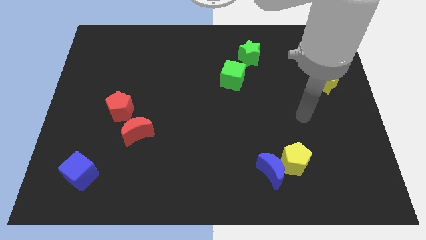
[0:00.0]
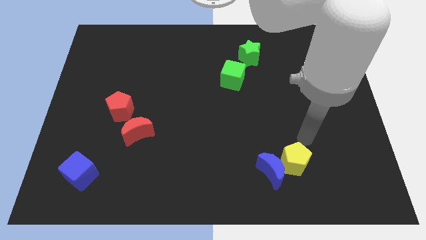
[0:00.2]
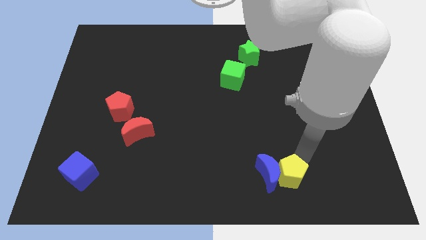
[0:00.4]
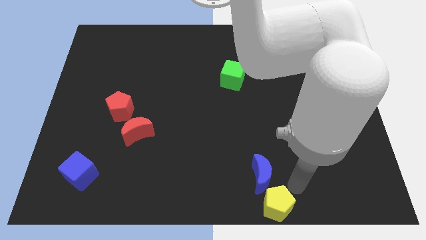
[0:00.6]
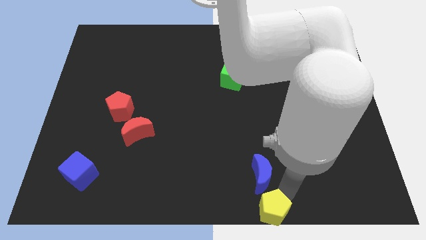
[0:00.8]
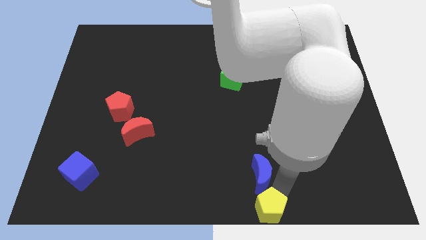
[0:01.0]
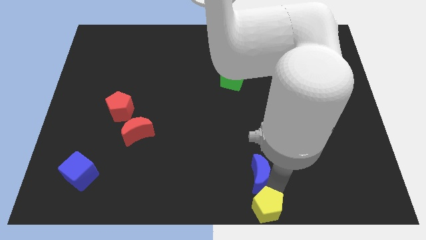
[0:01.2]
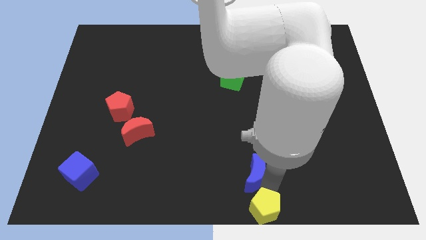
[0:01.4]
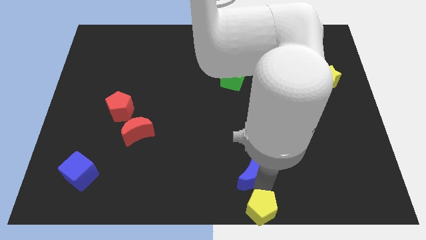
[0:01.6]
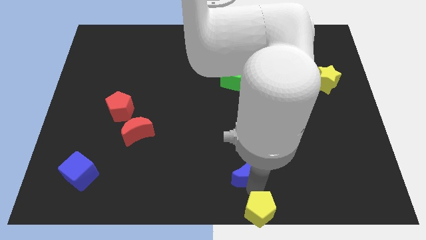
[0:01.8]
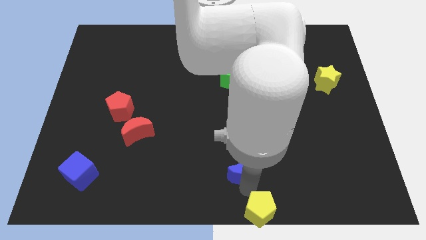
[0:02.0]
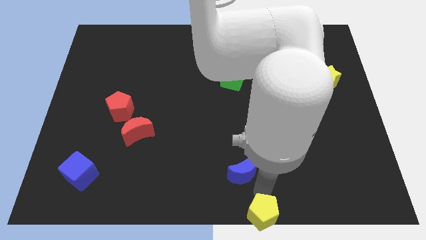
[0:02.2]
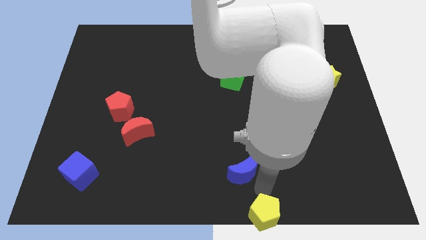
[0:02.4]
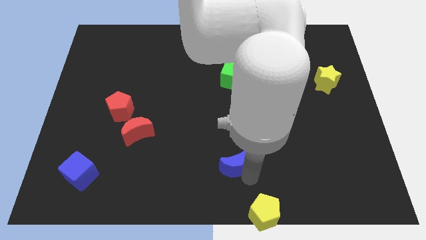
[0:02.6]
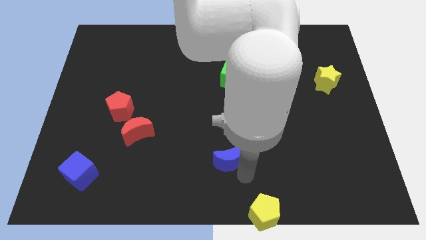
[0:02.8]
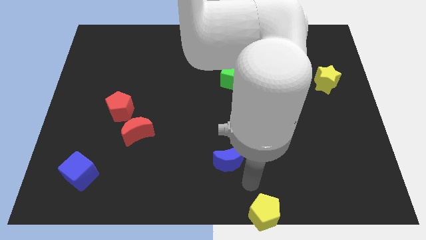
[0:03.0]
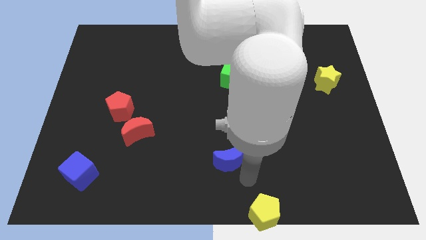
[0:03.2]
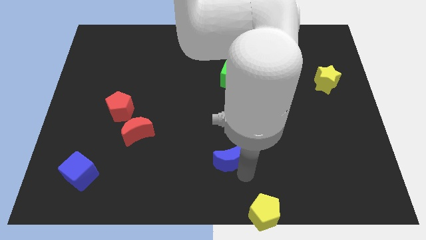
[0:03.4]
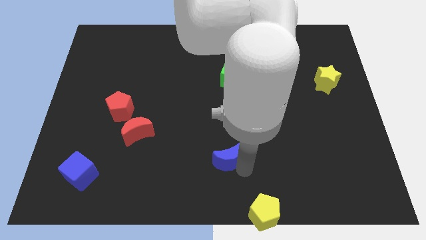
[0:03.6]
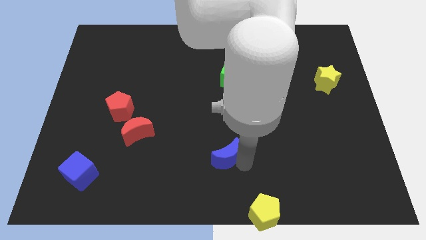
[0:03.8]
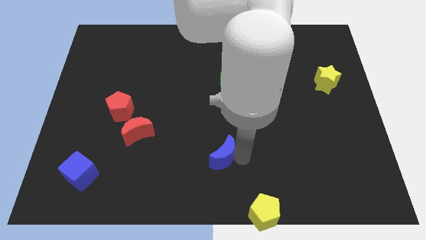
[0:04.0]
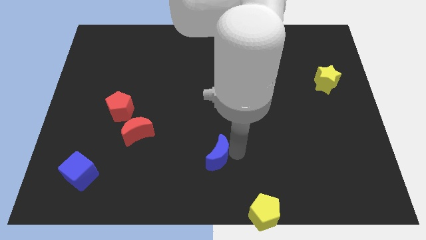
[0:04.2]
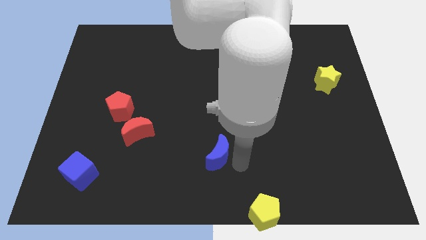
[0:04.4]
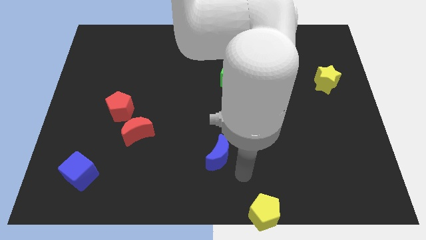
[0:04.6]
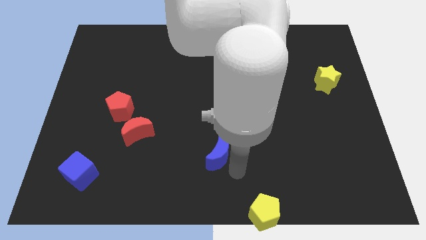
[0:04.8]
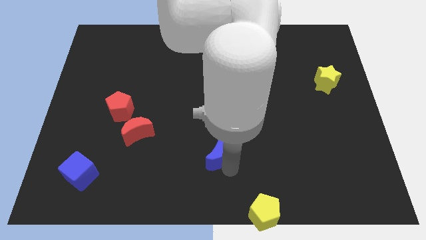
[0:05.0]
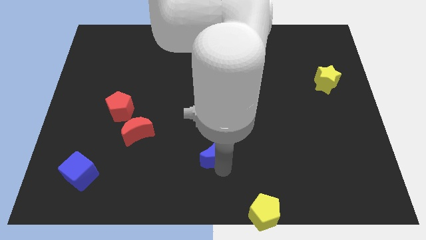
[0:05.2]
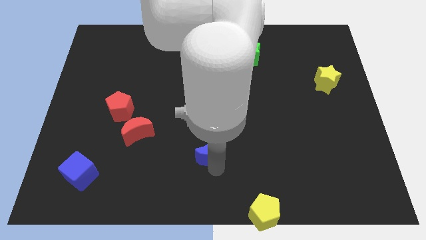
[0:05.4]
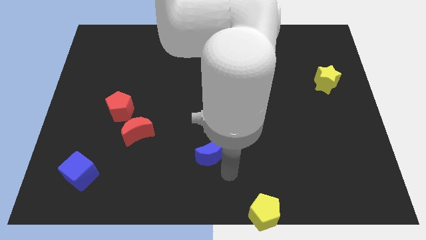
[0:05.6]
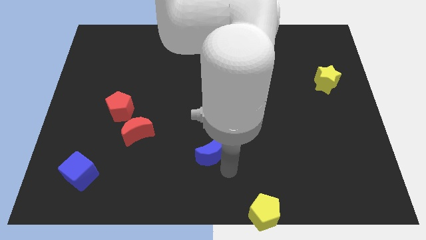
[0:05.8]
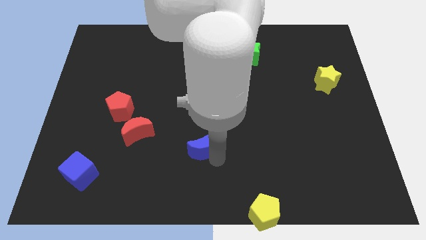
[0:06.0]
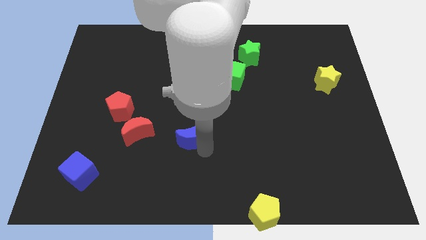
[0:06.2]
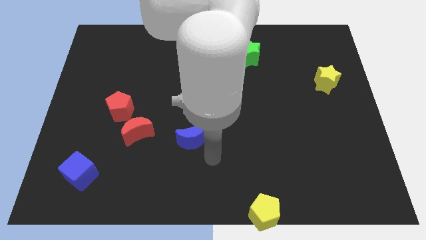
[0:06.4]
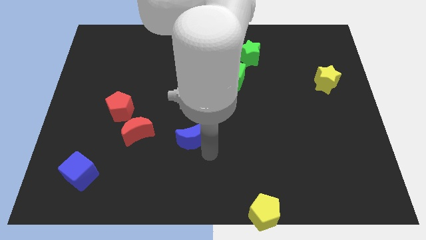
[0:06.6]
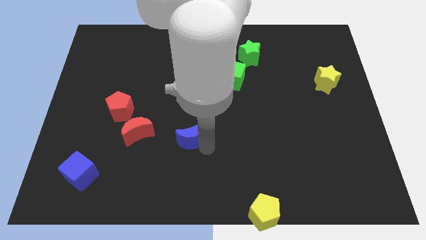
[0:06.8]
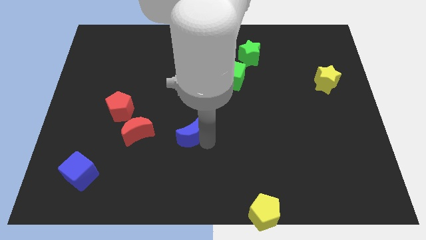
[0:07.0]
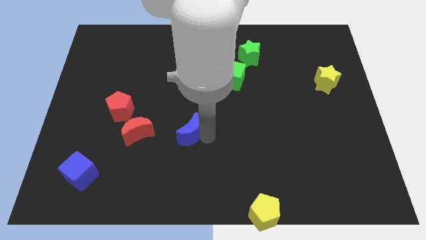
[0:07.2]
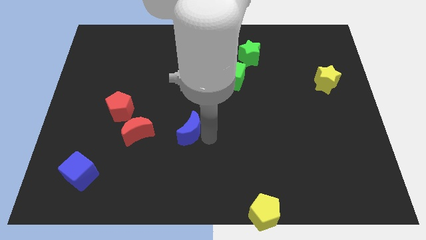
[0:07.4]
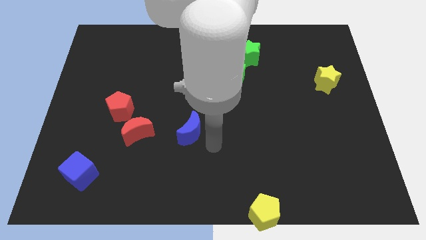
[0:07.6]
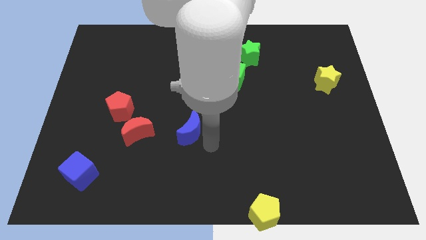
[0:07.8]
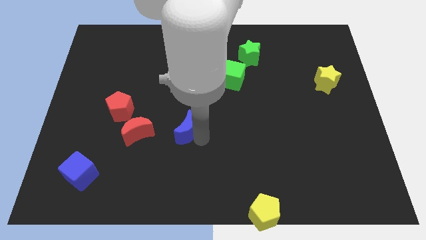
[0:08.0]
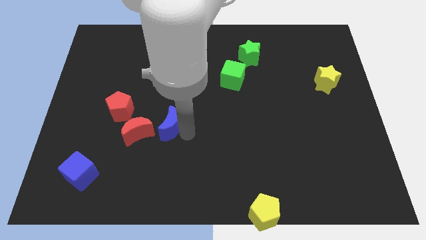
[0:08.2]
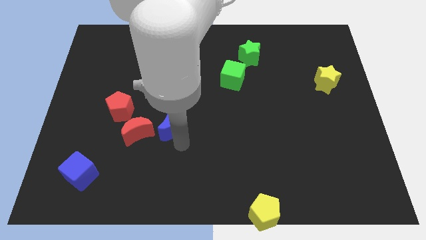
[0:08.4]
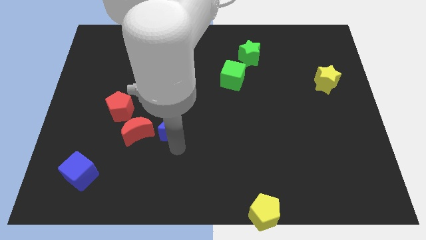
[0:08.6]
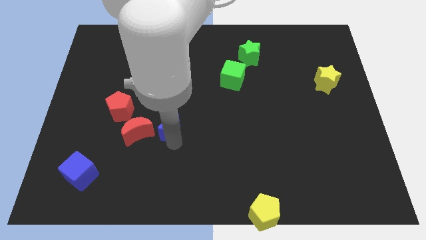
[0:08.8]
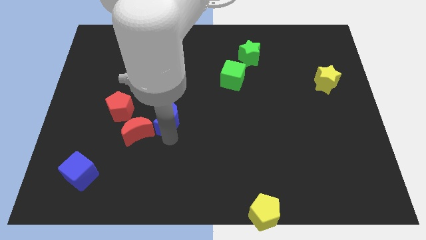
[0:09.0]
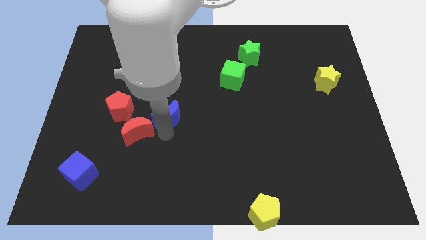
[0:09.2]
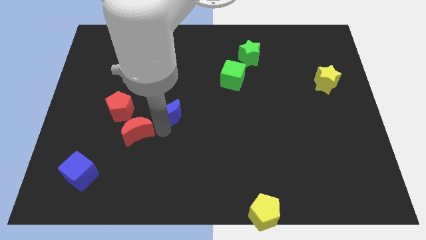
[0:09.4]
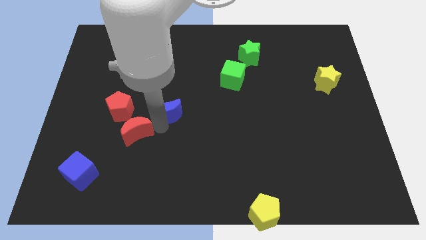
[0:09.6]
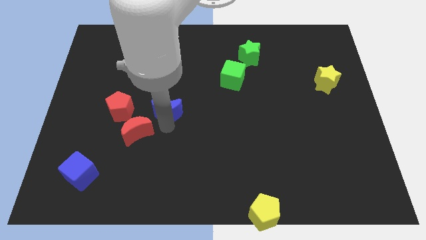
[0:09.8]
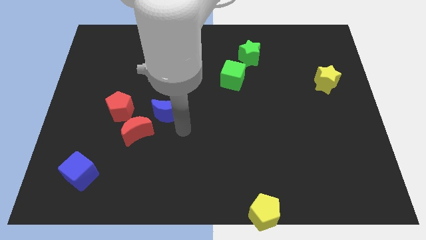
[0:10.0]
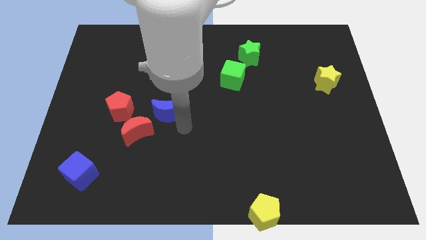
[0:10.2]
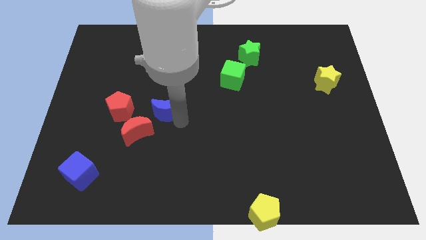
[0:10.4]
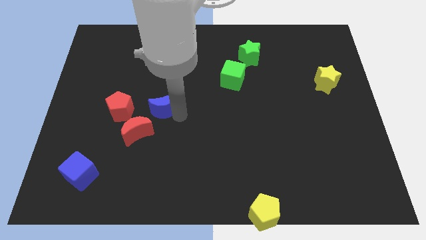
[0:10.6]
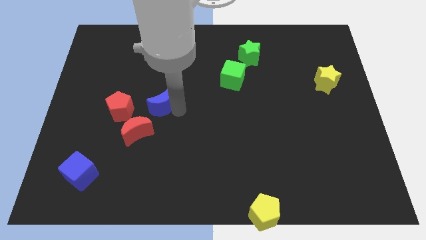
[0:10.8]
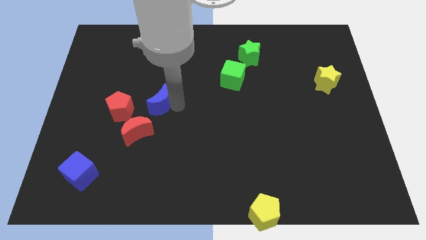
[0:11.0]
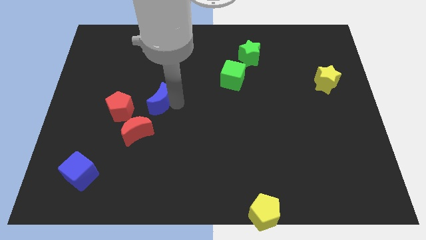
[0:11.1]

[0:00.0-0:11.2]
put the blue moon diagonally up and to the right of the red pentagon

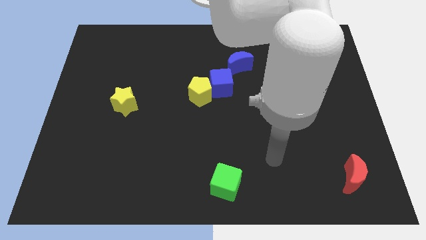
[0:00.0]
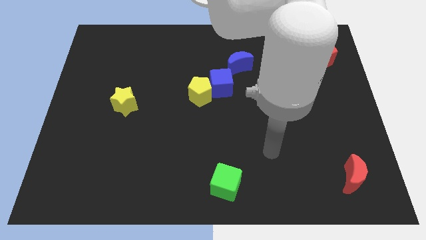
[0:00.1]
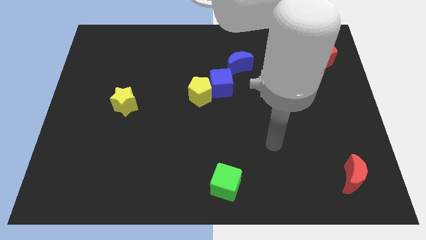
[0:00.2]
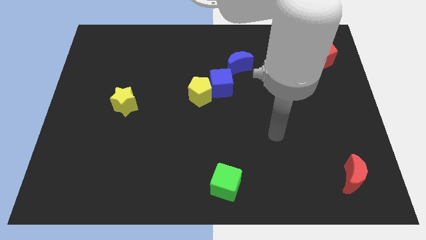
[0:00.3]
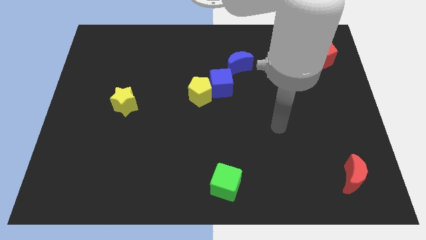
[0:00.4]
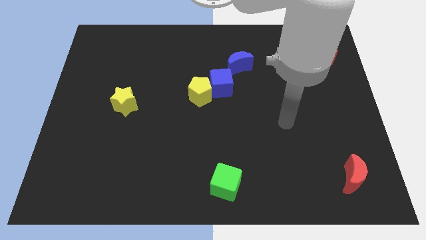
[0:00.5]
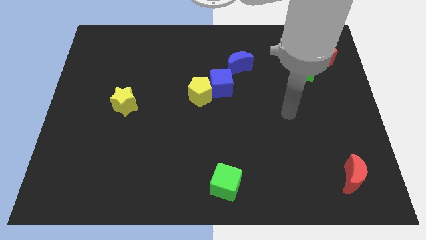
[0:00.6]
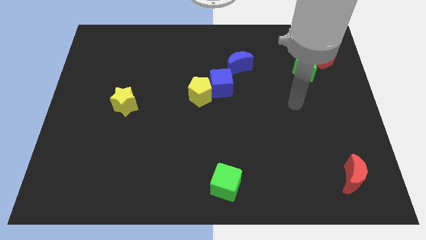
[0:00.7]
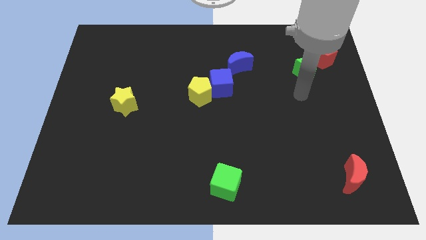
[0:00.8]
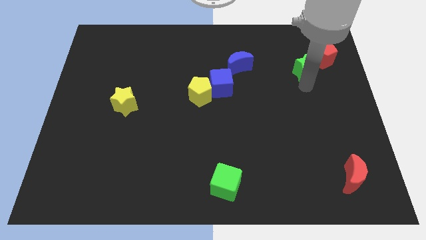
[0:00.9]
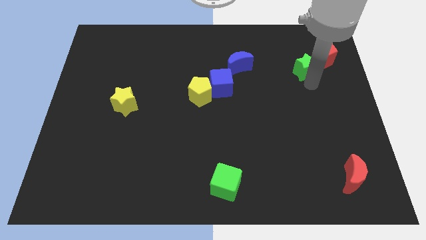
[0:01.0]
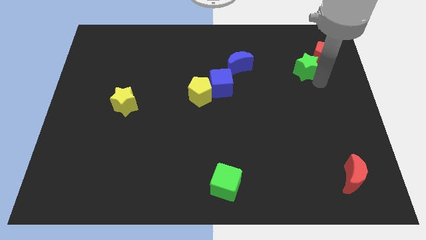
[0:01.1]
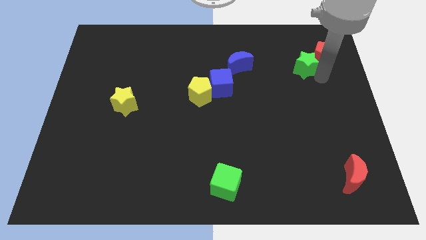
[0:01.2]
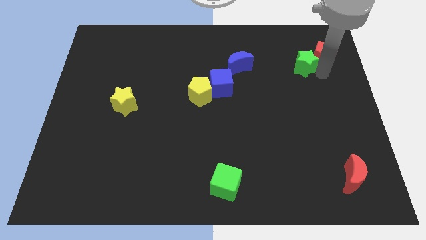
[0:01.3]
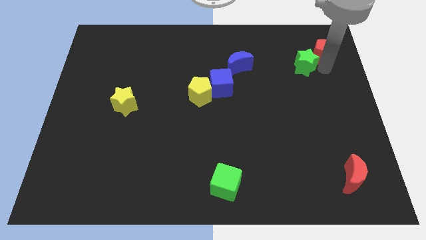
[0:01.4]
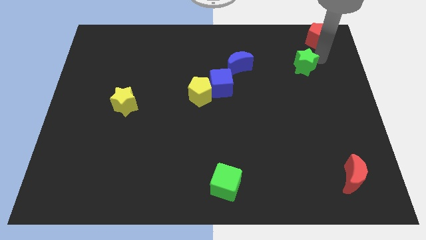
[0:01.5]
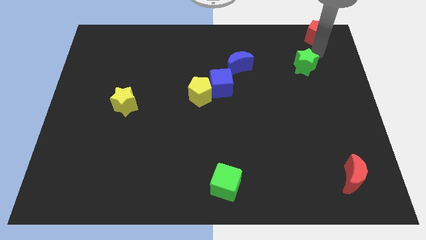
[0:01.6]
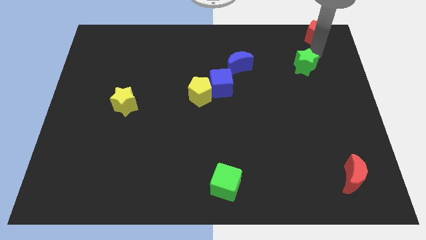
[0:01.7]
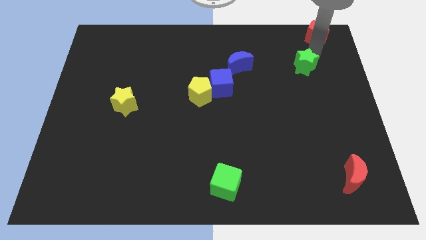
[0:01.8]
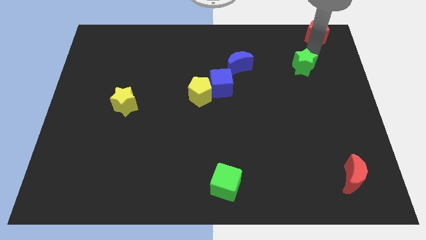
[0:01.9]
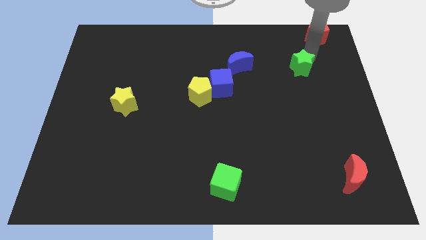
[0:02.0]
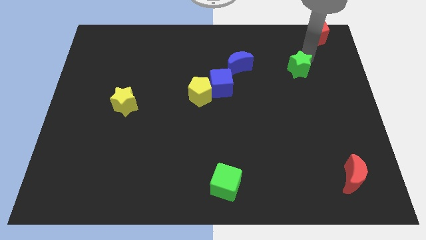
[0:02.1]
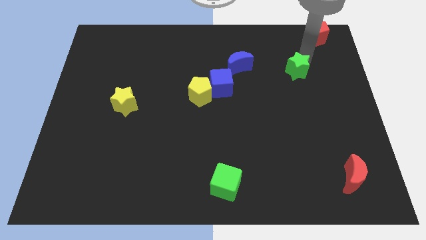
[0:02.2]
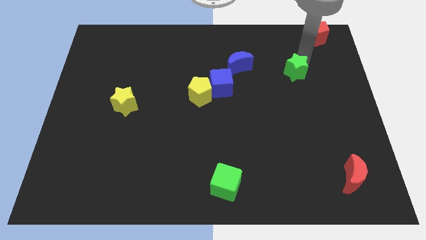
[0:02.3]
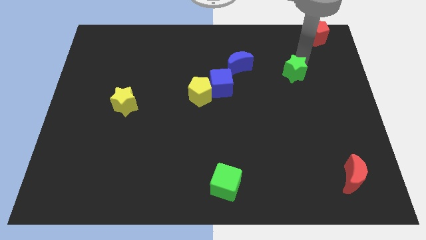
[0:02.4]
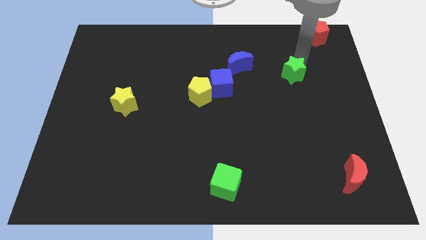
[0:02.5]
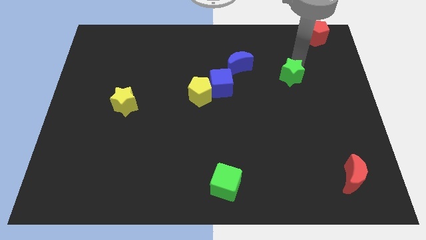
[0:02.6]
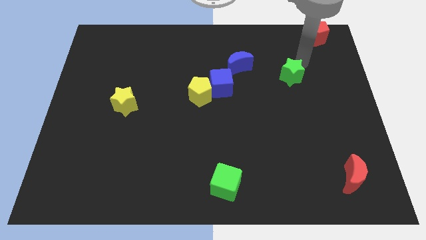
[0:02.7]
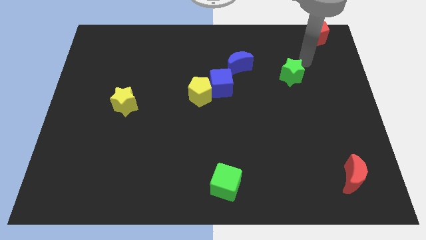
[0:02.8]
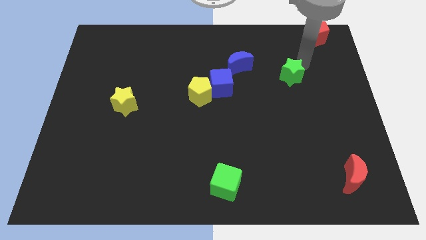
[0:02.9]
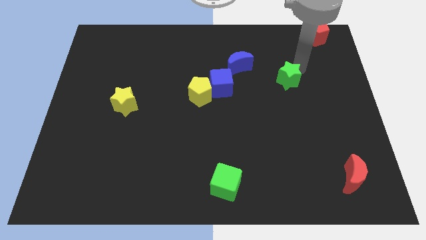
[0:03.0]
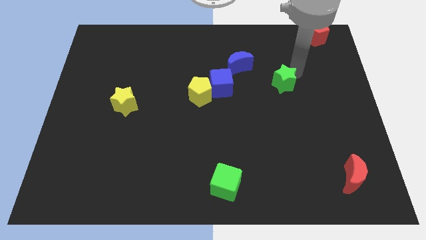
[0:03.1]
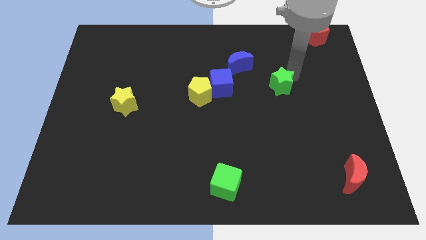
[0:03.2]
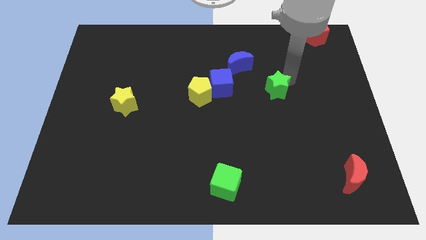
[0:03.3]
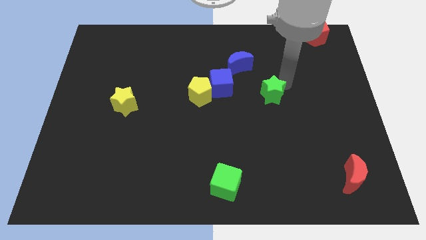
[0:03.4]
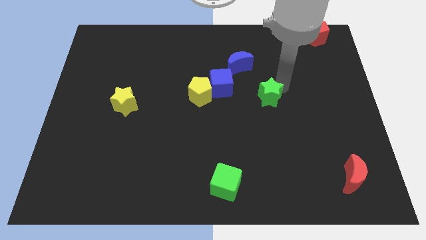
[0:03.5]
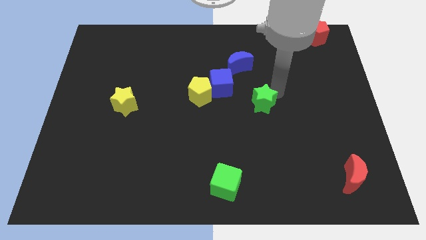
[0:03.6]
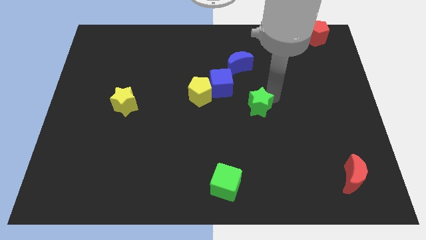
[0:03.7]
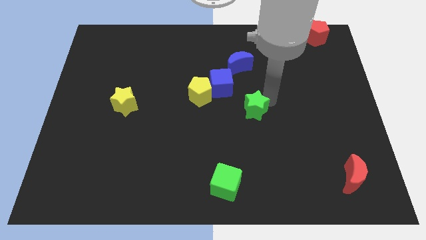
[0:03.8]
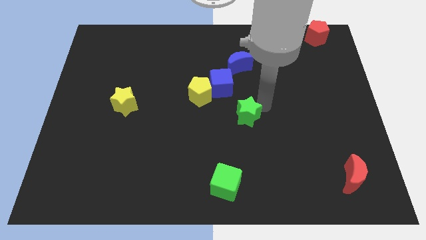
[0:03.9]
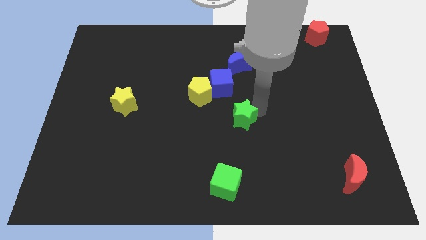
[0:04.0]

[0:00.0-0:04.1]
push the green star to the bottom side of the blue cube
